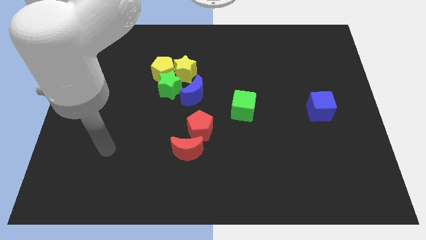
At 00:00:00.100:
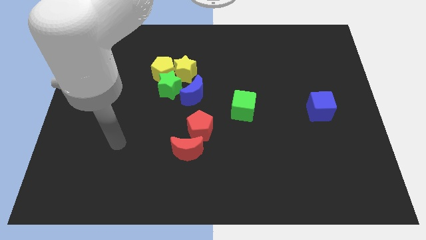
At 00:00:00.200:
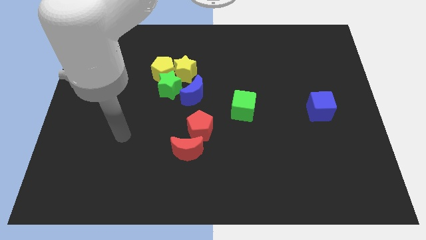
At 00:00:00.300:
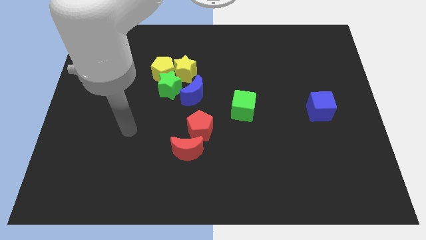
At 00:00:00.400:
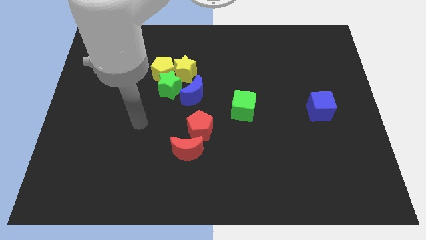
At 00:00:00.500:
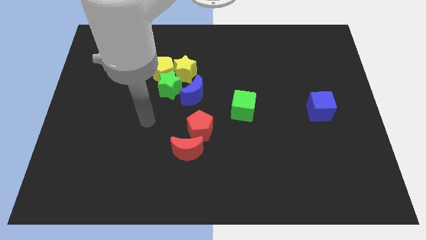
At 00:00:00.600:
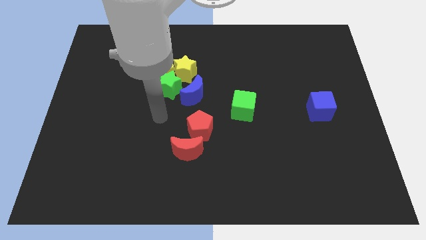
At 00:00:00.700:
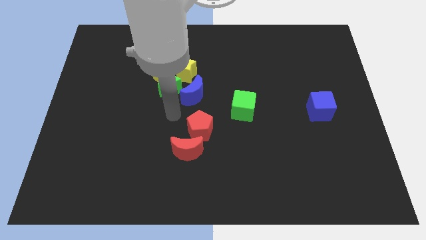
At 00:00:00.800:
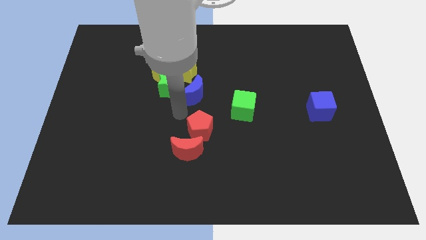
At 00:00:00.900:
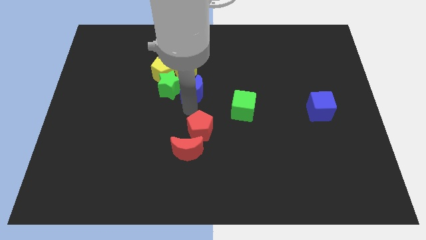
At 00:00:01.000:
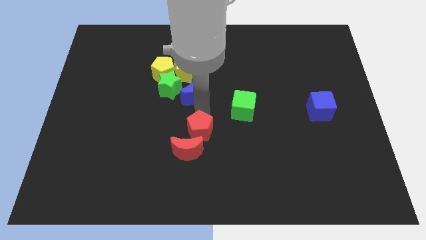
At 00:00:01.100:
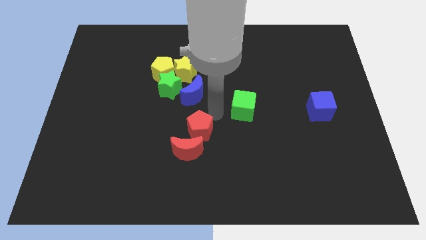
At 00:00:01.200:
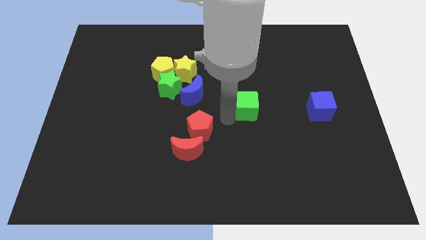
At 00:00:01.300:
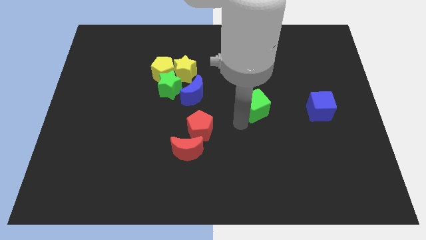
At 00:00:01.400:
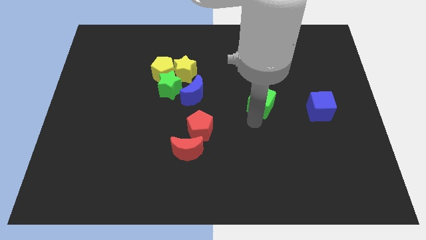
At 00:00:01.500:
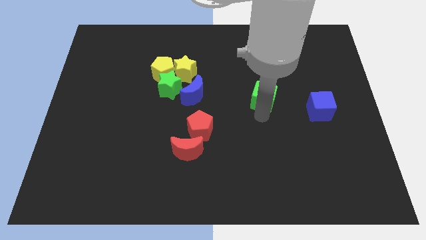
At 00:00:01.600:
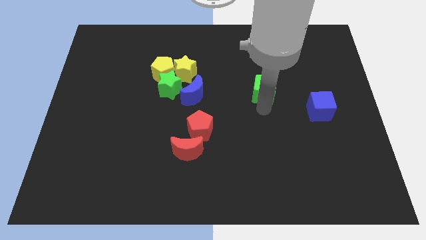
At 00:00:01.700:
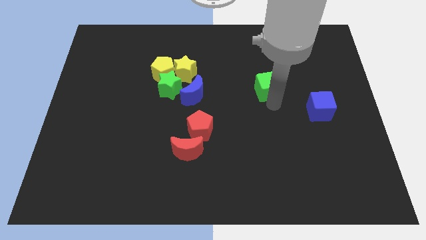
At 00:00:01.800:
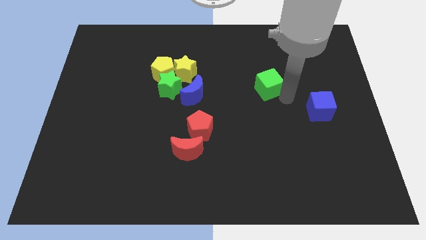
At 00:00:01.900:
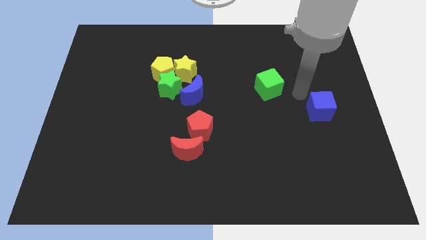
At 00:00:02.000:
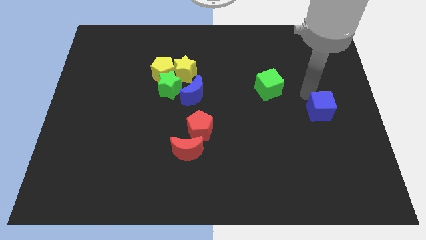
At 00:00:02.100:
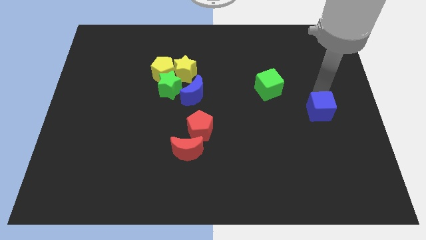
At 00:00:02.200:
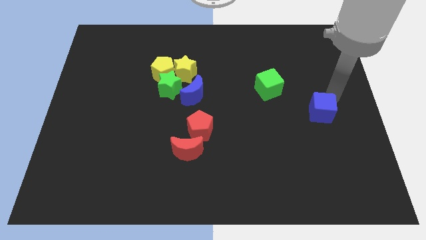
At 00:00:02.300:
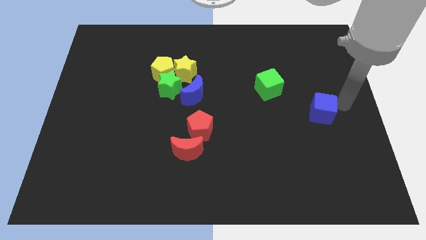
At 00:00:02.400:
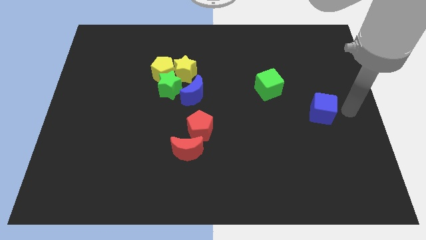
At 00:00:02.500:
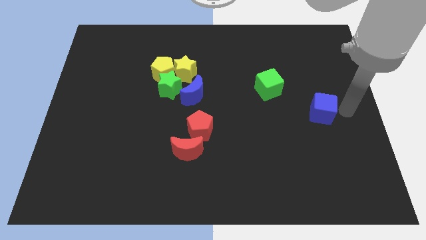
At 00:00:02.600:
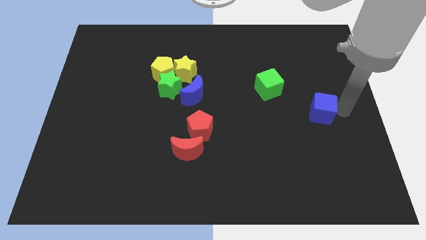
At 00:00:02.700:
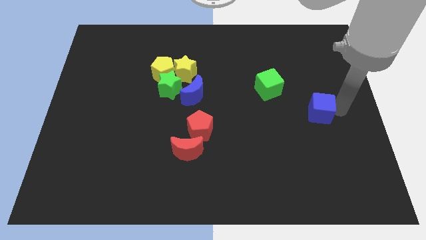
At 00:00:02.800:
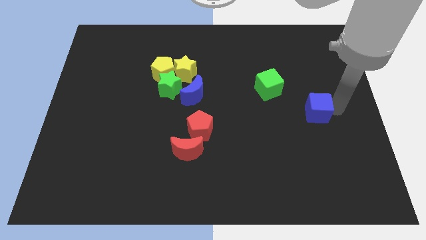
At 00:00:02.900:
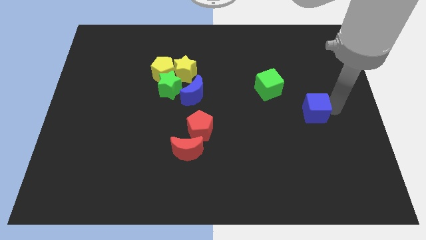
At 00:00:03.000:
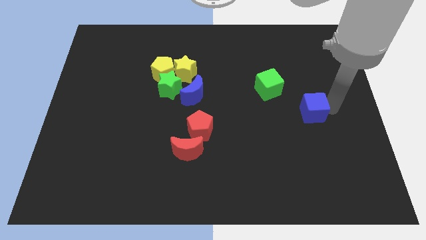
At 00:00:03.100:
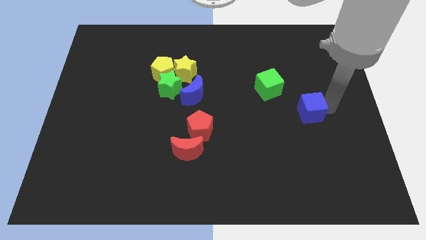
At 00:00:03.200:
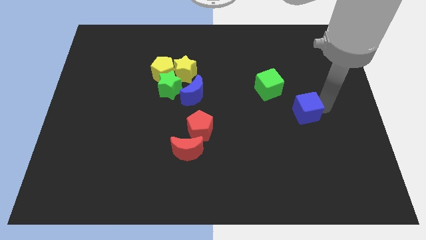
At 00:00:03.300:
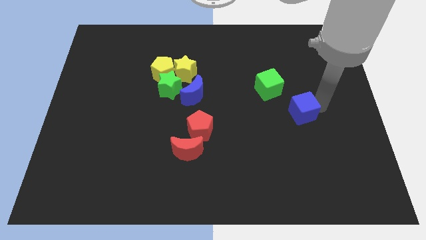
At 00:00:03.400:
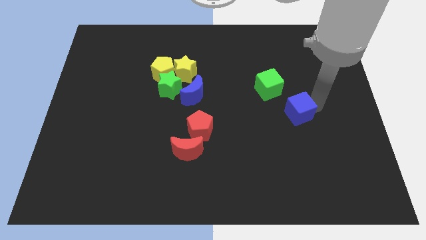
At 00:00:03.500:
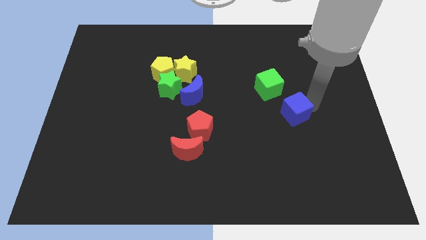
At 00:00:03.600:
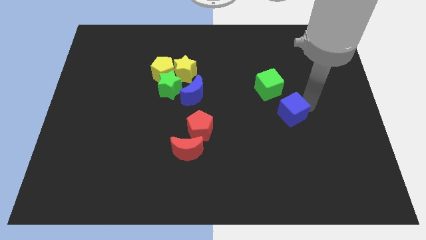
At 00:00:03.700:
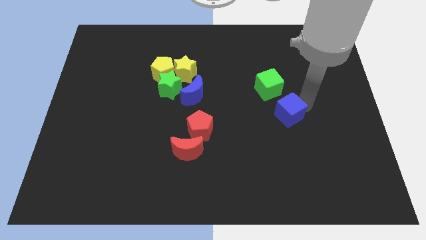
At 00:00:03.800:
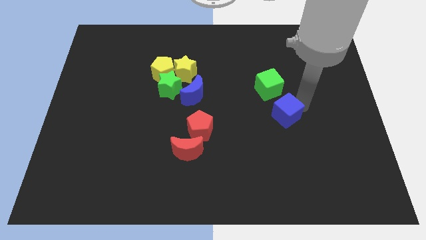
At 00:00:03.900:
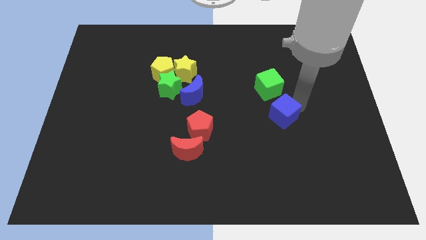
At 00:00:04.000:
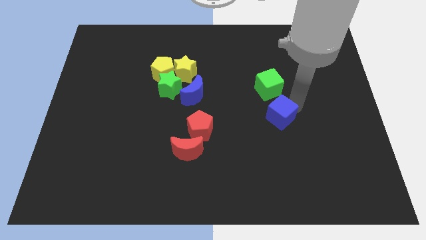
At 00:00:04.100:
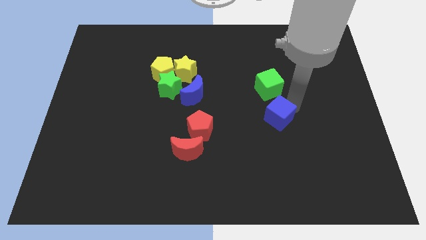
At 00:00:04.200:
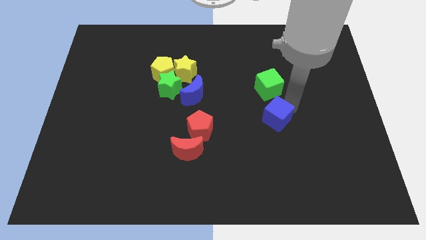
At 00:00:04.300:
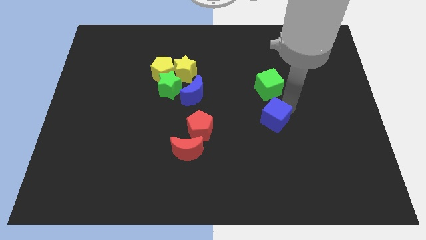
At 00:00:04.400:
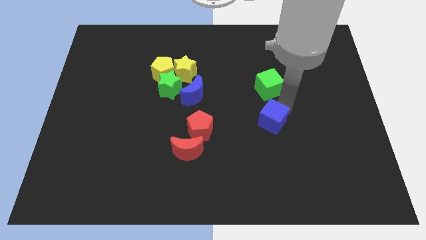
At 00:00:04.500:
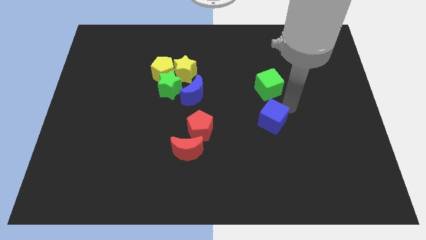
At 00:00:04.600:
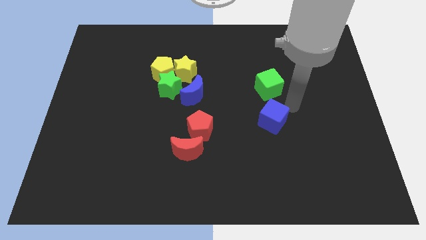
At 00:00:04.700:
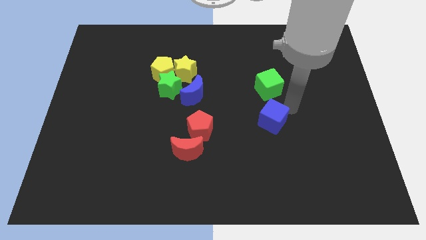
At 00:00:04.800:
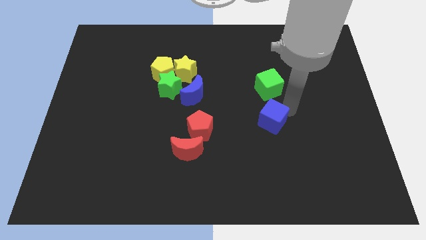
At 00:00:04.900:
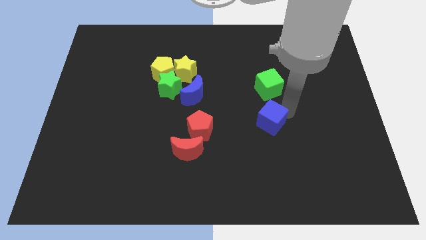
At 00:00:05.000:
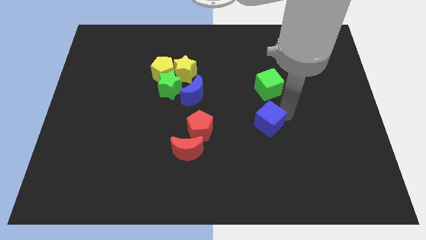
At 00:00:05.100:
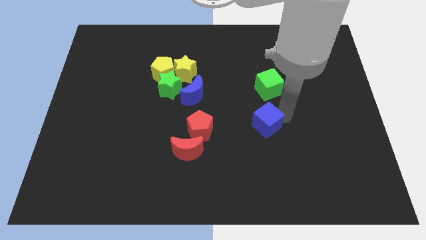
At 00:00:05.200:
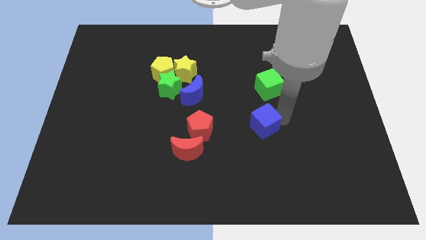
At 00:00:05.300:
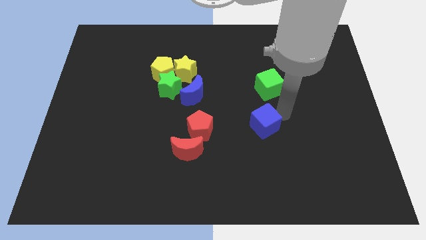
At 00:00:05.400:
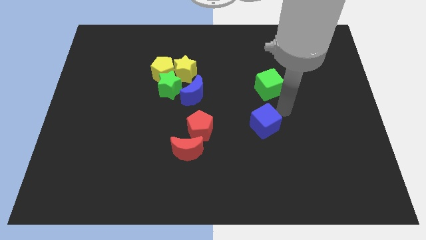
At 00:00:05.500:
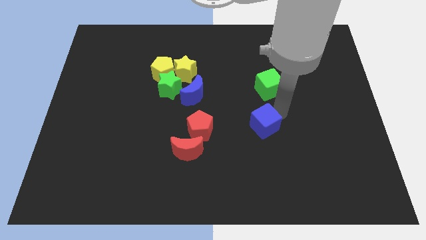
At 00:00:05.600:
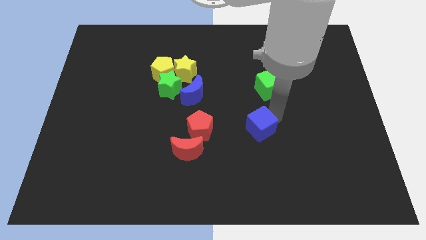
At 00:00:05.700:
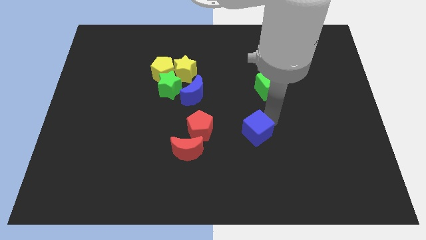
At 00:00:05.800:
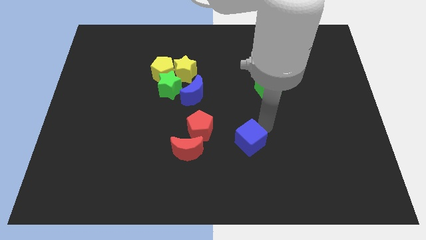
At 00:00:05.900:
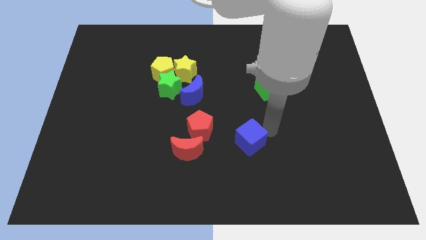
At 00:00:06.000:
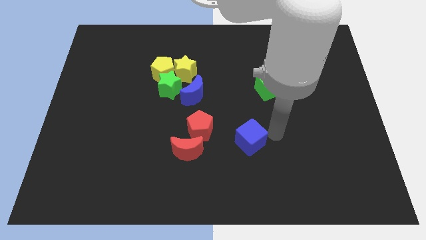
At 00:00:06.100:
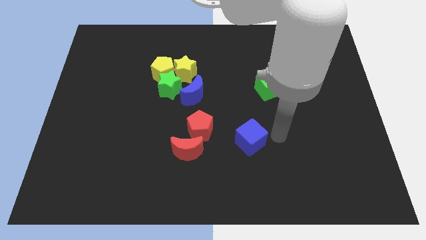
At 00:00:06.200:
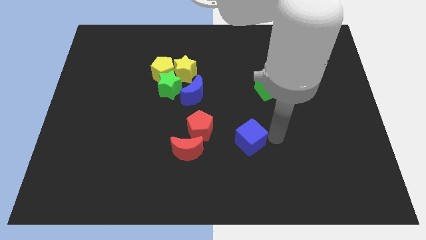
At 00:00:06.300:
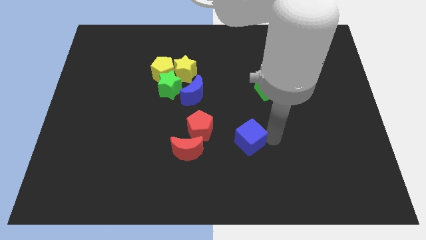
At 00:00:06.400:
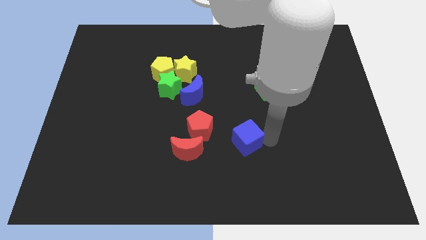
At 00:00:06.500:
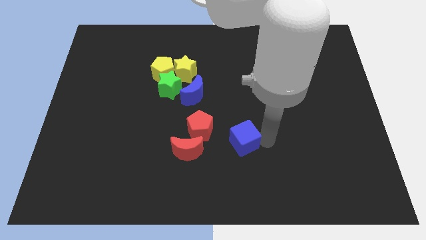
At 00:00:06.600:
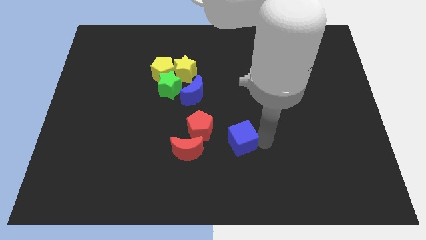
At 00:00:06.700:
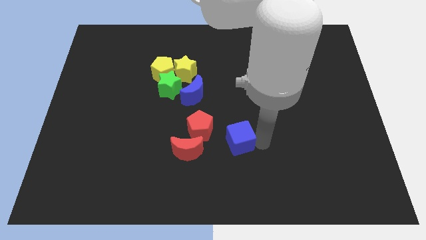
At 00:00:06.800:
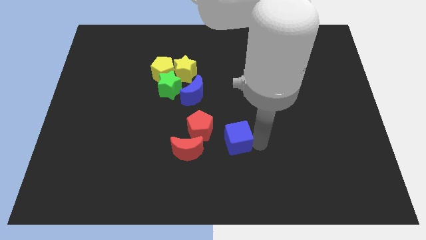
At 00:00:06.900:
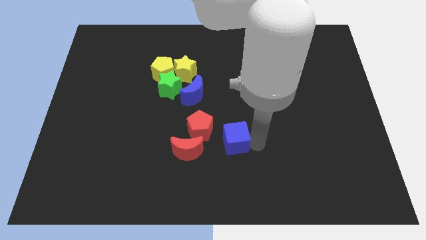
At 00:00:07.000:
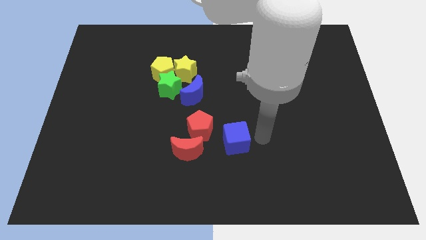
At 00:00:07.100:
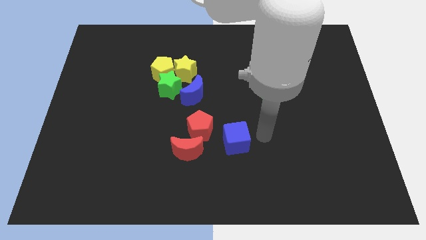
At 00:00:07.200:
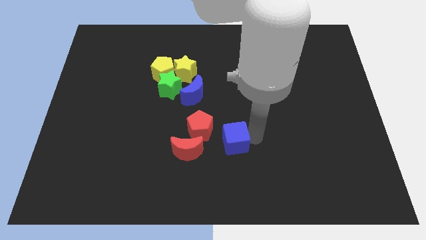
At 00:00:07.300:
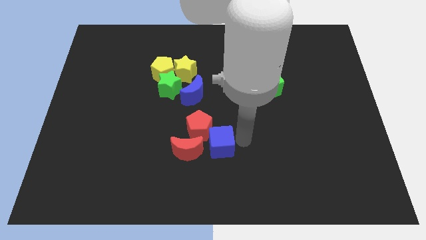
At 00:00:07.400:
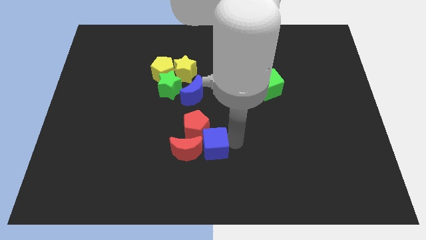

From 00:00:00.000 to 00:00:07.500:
put the blue cube close to the red moon
